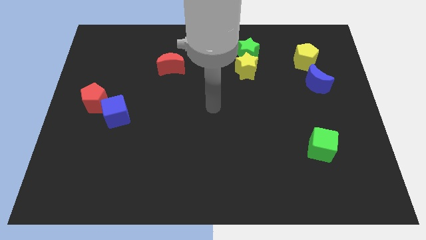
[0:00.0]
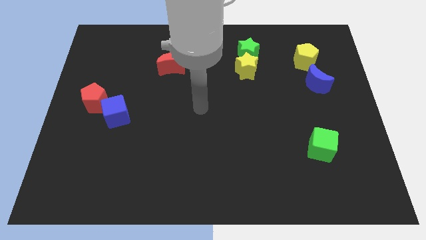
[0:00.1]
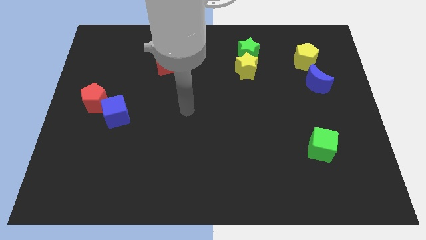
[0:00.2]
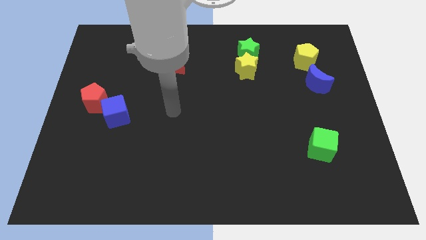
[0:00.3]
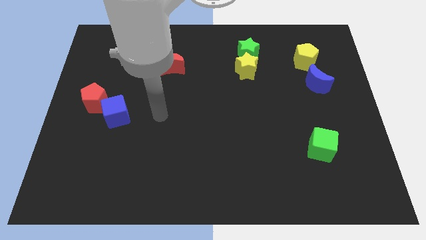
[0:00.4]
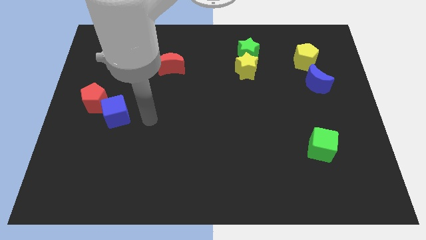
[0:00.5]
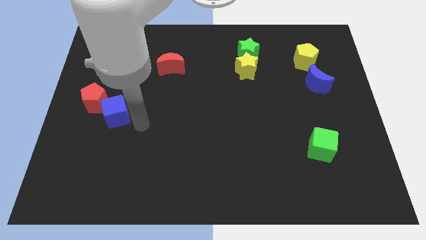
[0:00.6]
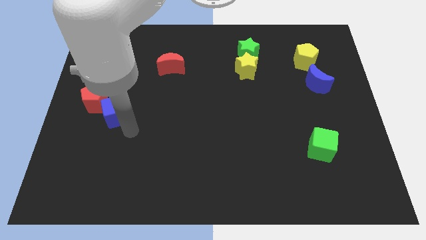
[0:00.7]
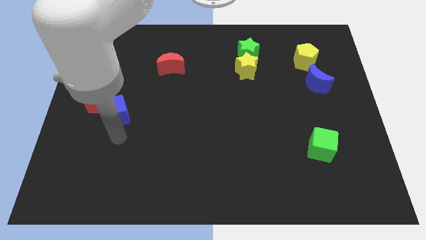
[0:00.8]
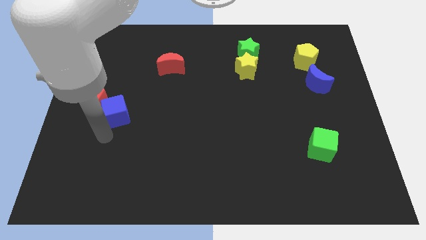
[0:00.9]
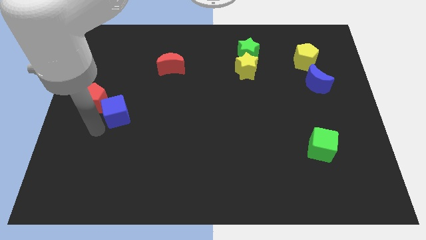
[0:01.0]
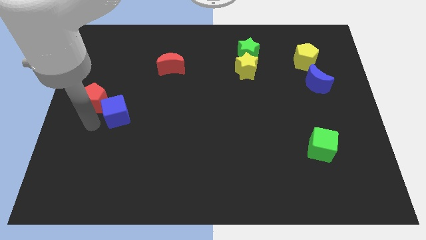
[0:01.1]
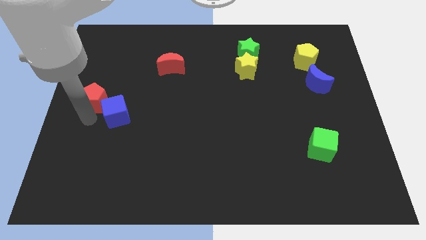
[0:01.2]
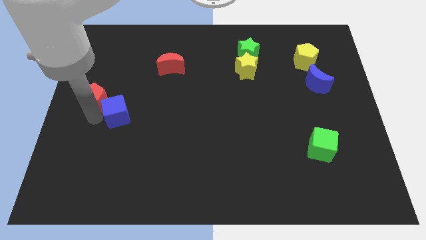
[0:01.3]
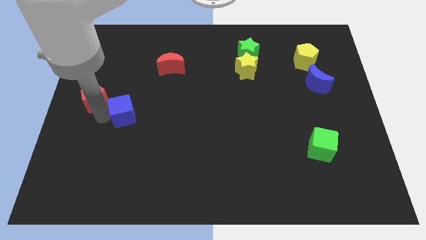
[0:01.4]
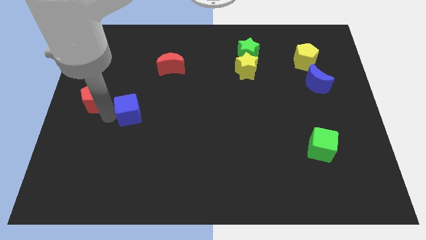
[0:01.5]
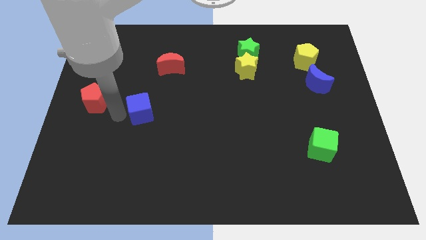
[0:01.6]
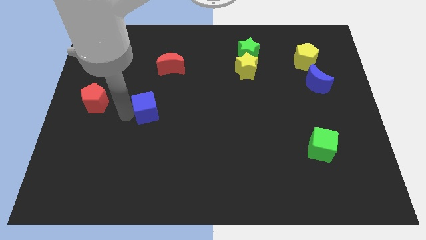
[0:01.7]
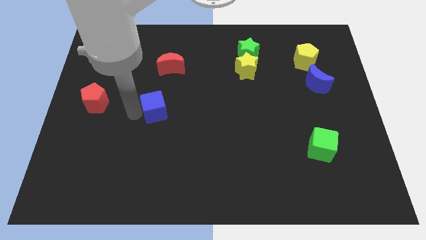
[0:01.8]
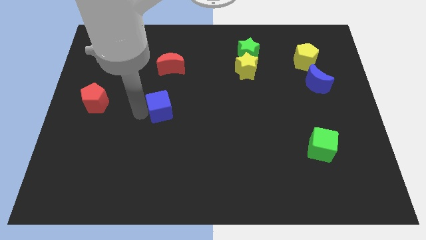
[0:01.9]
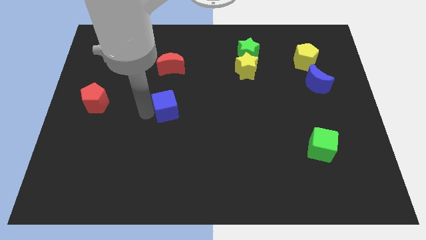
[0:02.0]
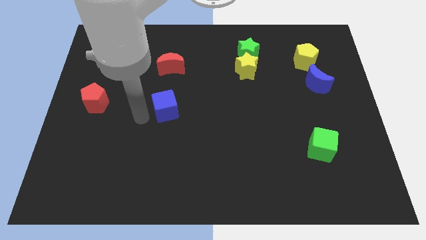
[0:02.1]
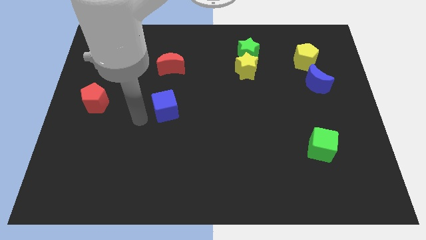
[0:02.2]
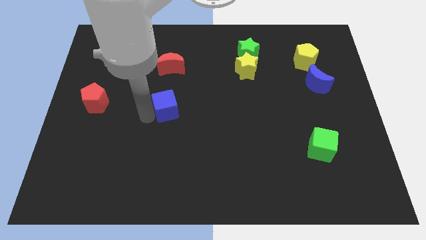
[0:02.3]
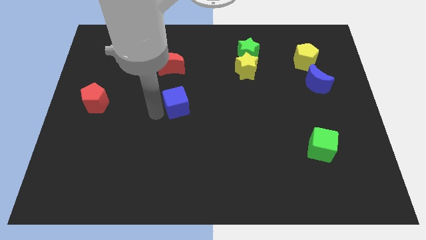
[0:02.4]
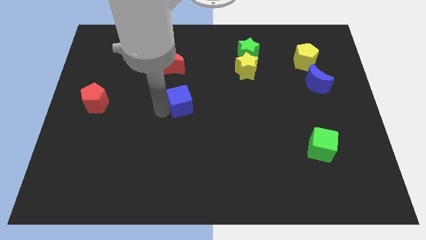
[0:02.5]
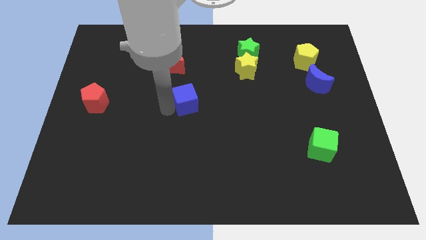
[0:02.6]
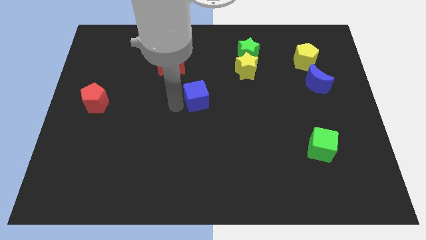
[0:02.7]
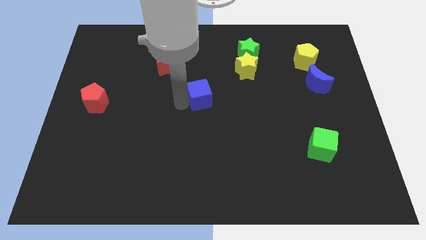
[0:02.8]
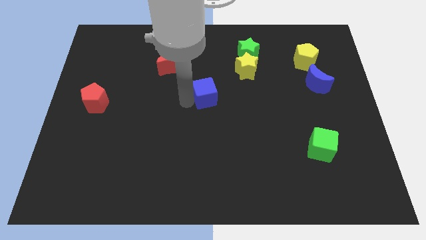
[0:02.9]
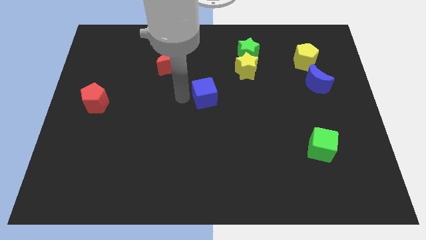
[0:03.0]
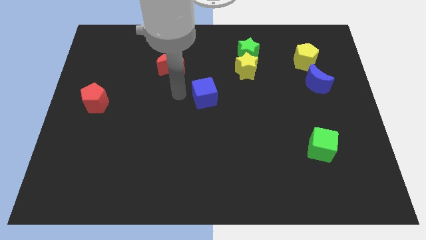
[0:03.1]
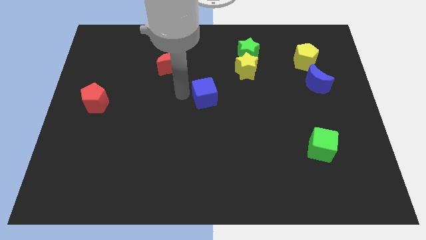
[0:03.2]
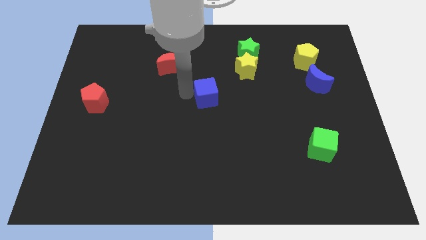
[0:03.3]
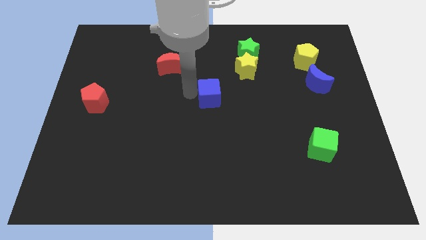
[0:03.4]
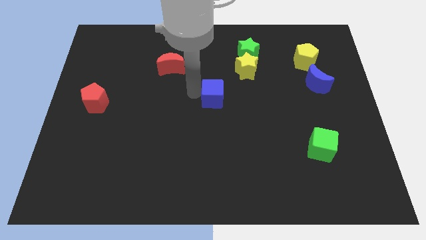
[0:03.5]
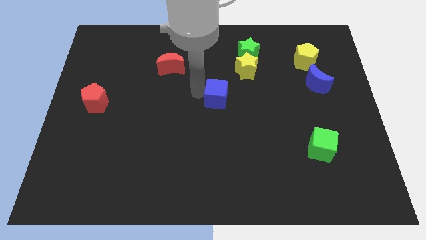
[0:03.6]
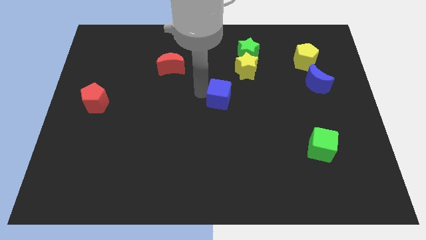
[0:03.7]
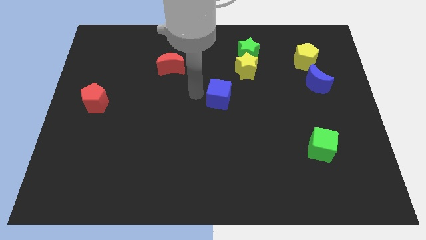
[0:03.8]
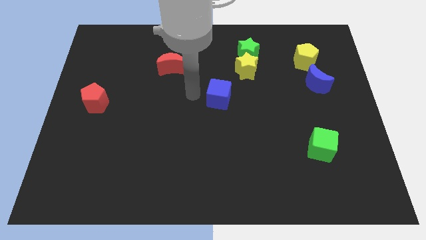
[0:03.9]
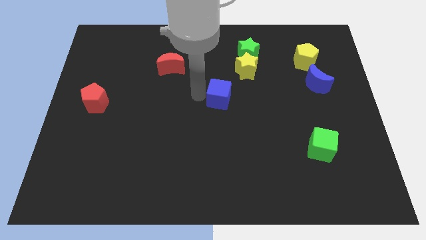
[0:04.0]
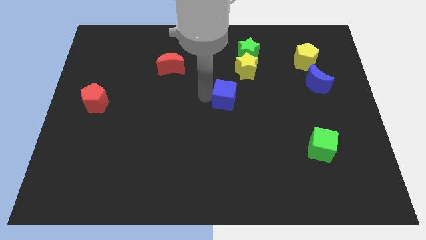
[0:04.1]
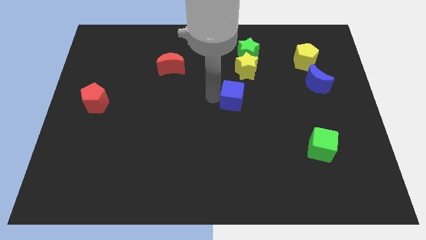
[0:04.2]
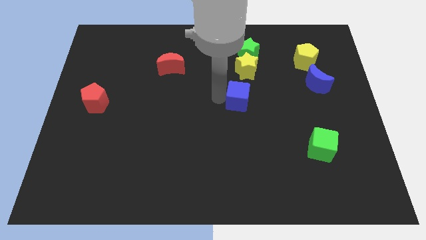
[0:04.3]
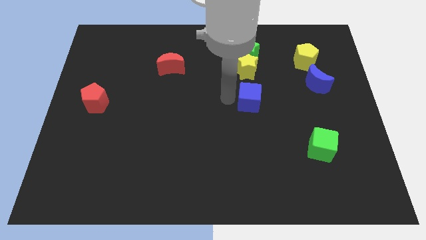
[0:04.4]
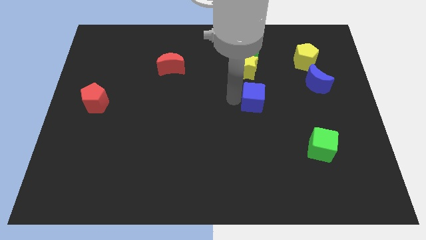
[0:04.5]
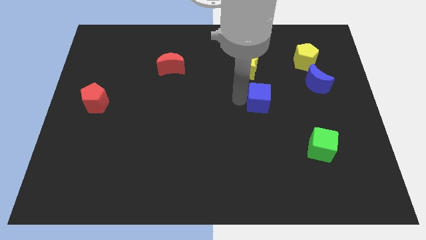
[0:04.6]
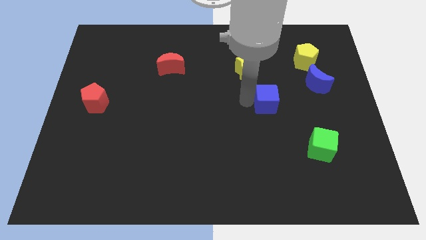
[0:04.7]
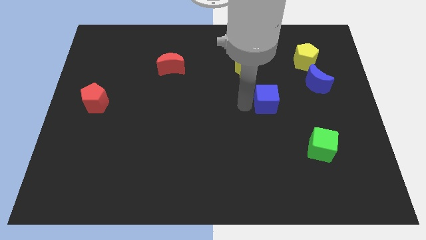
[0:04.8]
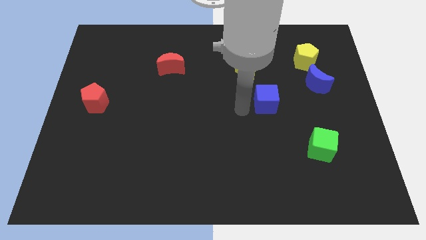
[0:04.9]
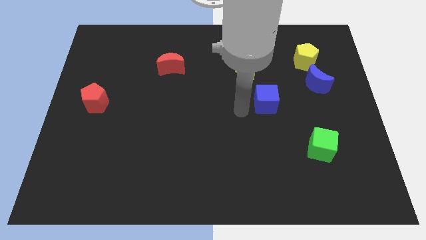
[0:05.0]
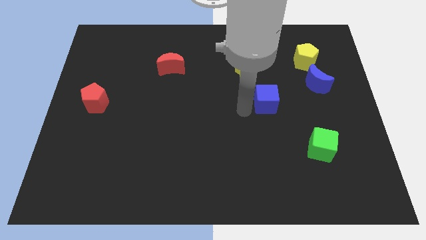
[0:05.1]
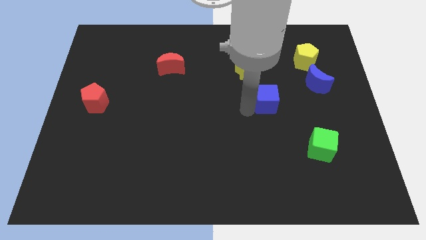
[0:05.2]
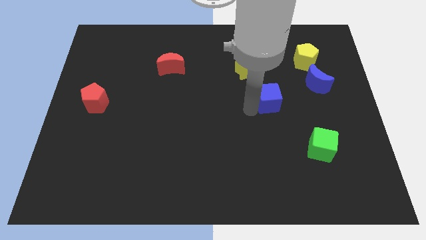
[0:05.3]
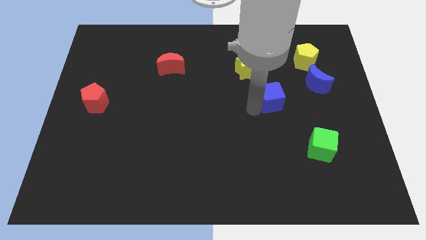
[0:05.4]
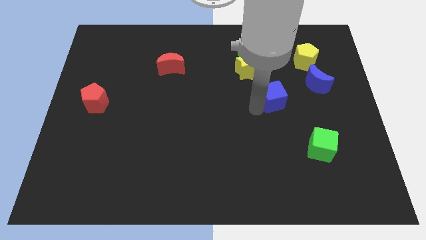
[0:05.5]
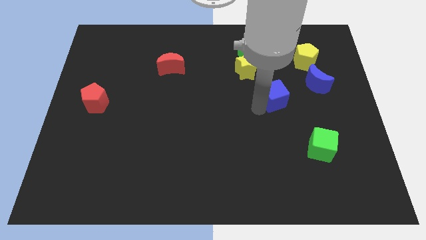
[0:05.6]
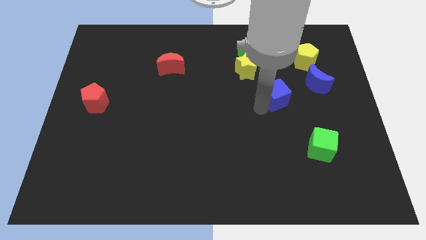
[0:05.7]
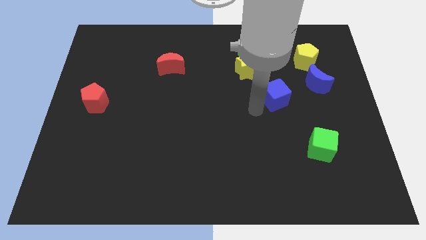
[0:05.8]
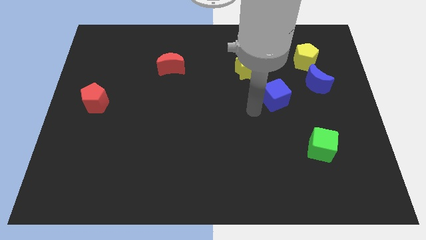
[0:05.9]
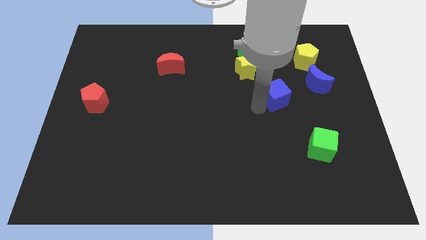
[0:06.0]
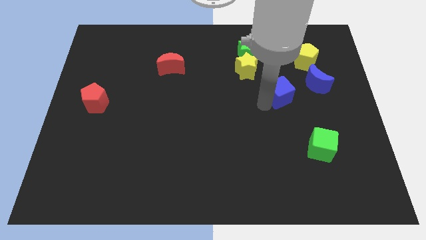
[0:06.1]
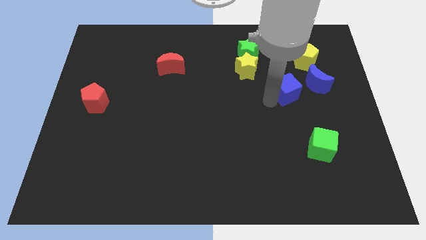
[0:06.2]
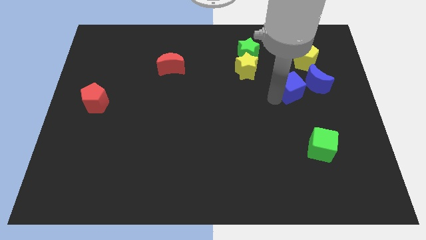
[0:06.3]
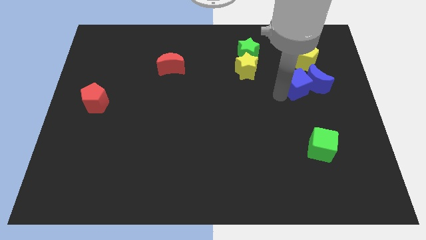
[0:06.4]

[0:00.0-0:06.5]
slide the blue cube close to the blue moon

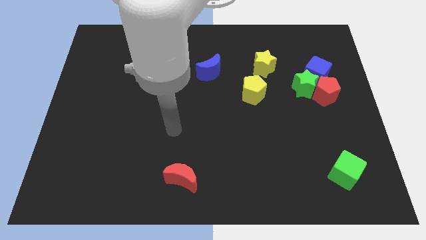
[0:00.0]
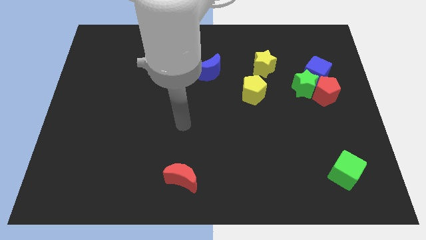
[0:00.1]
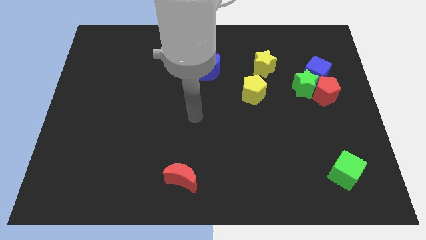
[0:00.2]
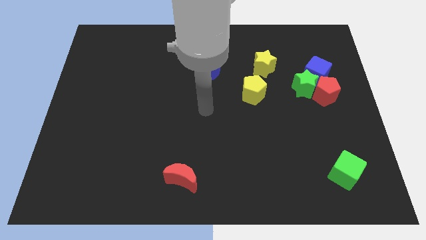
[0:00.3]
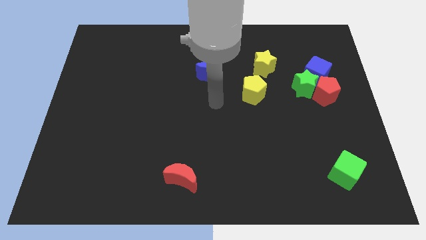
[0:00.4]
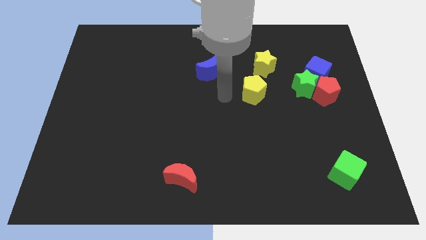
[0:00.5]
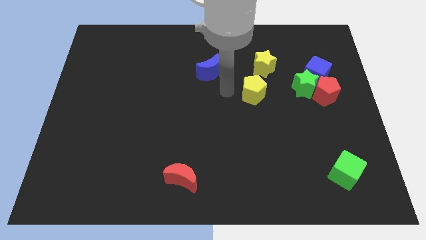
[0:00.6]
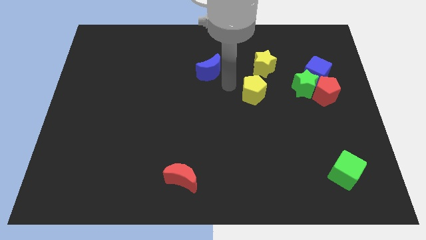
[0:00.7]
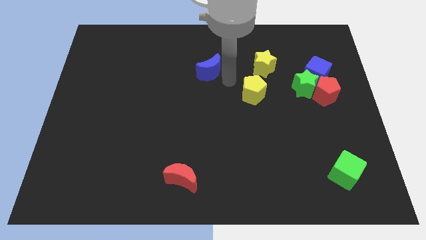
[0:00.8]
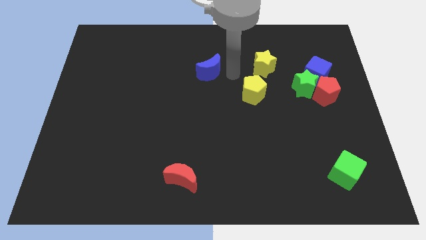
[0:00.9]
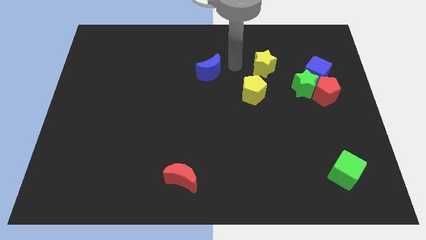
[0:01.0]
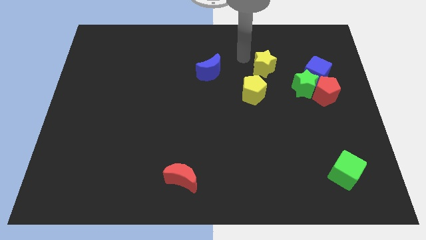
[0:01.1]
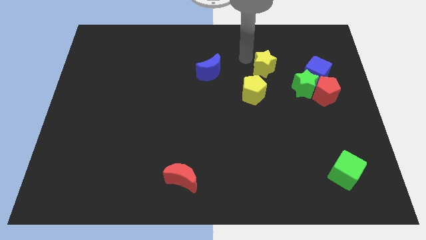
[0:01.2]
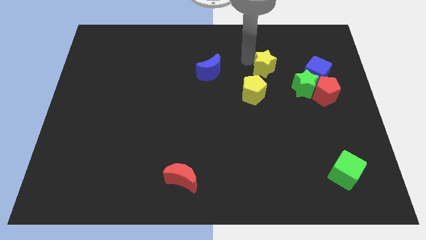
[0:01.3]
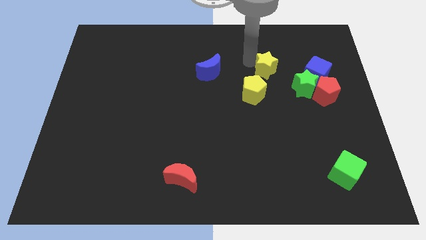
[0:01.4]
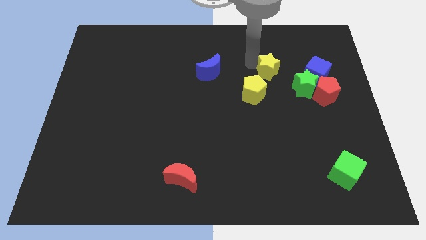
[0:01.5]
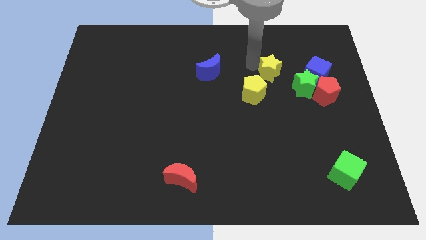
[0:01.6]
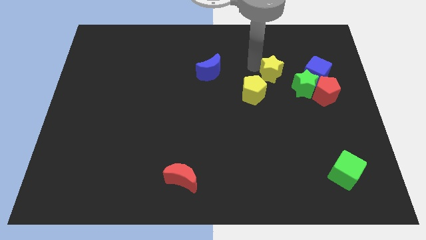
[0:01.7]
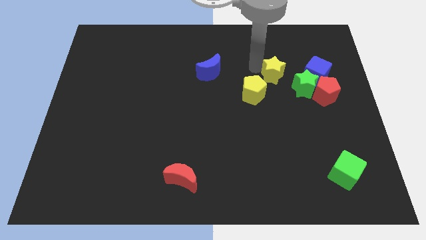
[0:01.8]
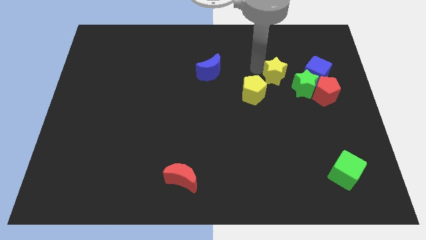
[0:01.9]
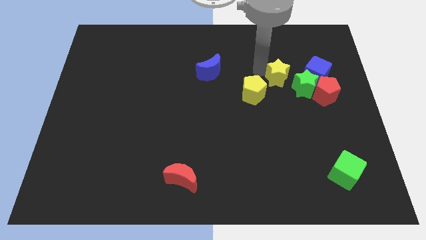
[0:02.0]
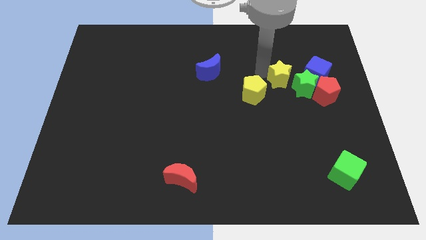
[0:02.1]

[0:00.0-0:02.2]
slide the yellow star next to the green star
